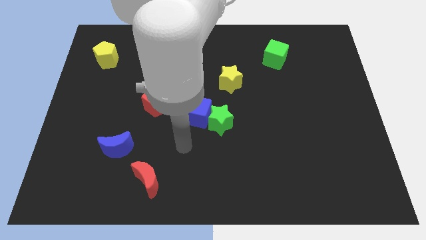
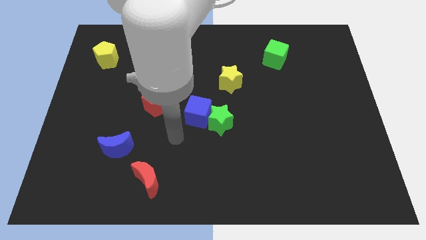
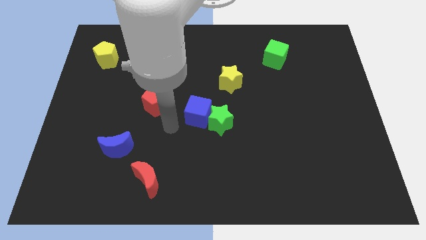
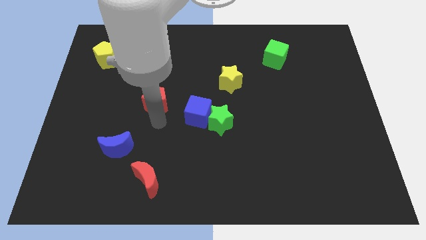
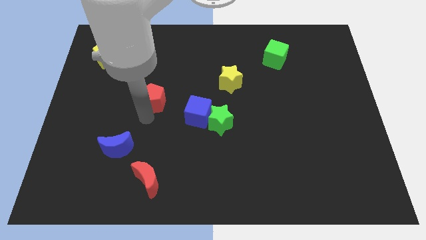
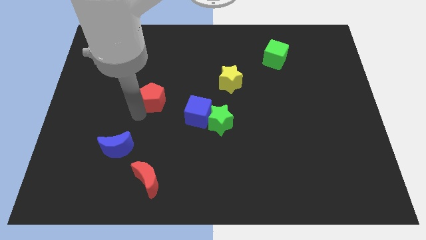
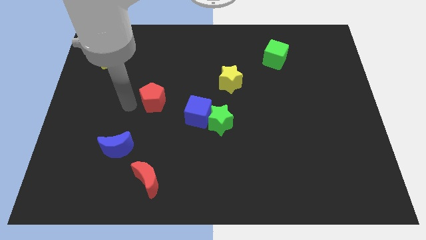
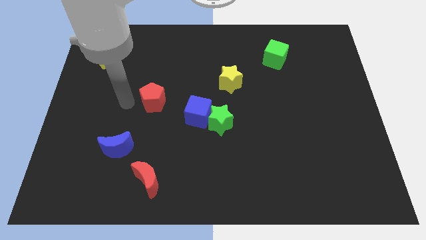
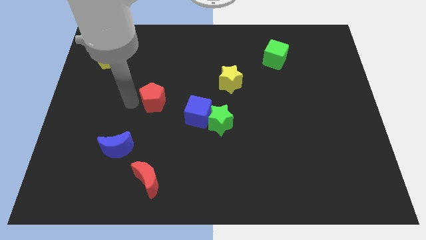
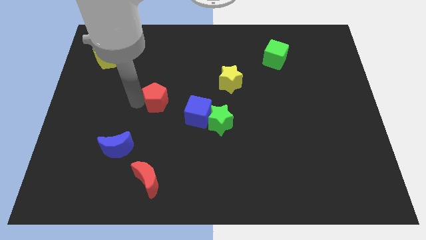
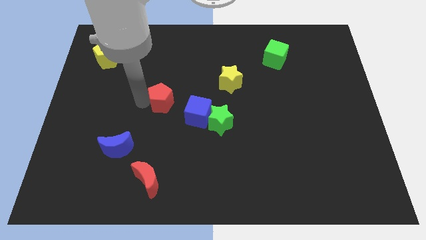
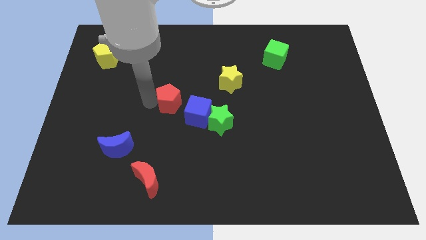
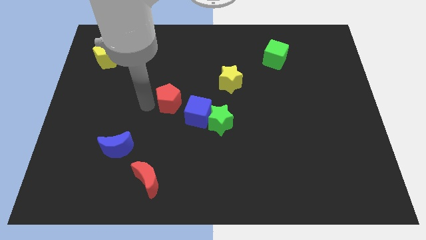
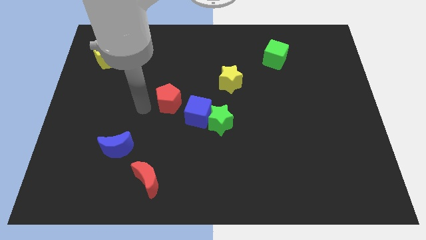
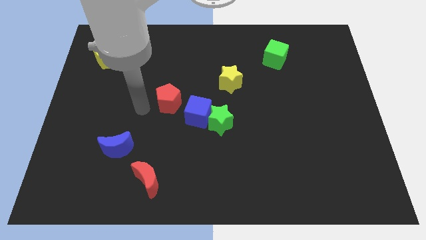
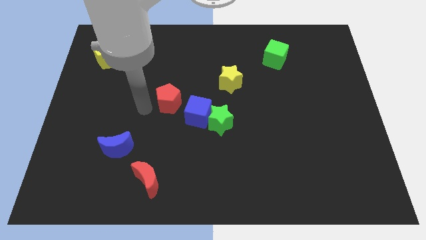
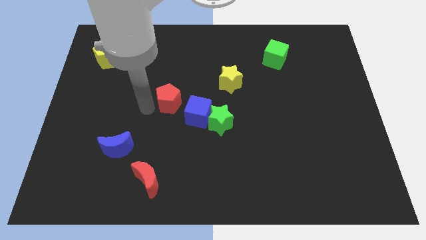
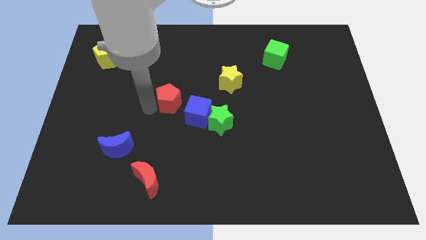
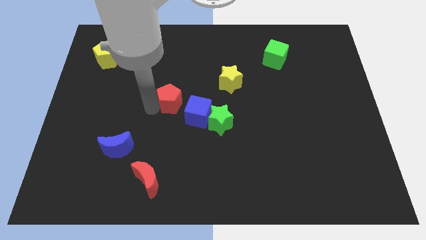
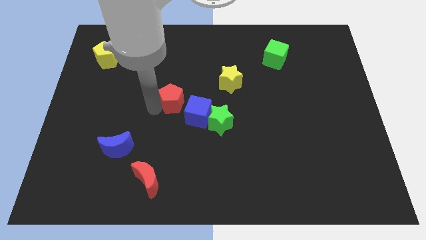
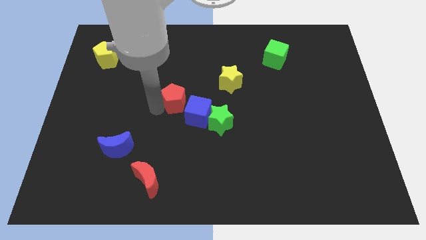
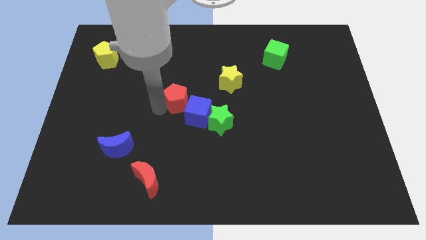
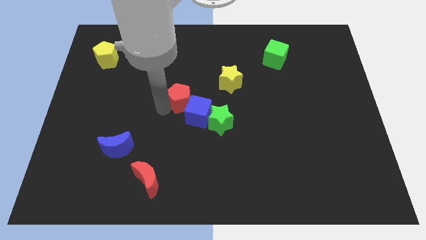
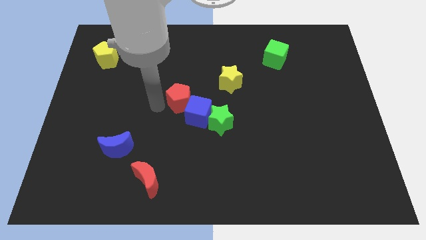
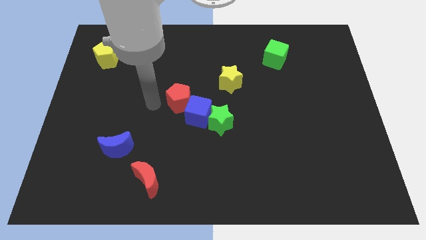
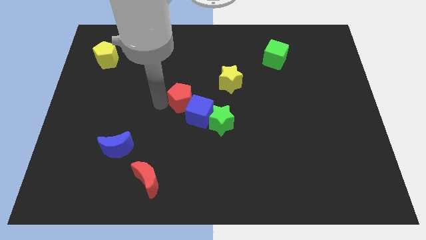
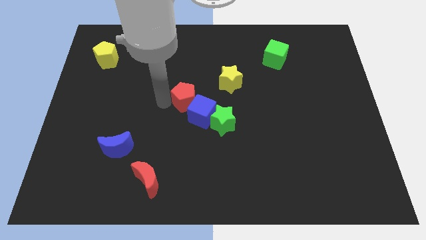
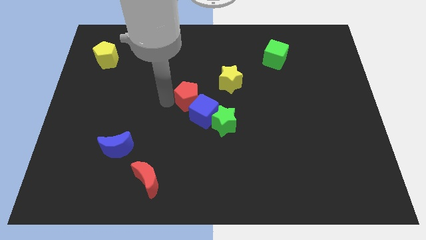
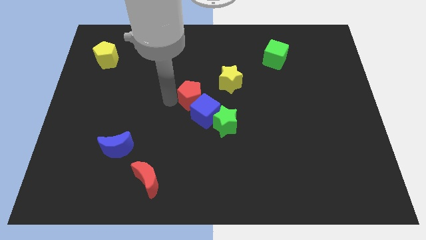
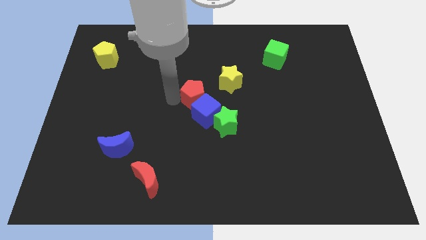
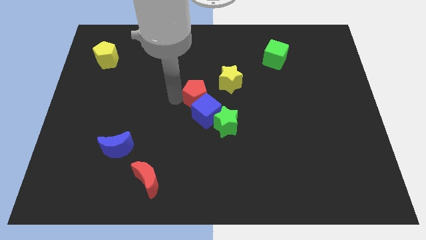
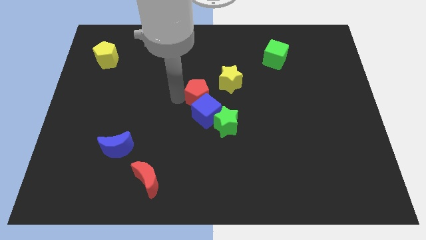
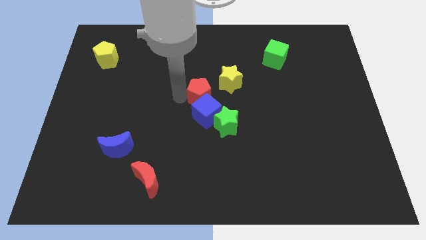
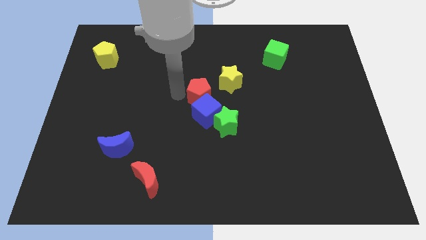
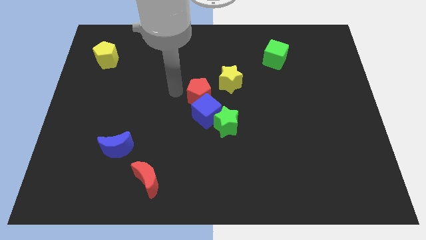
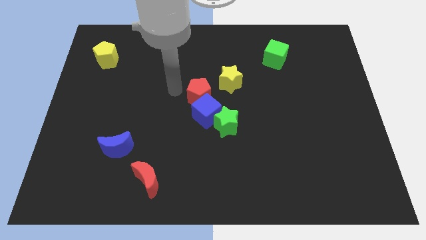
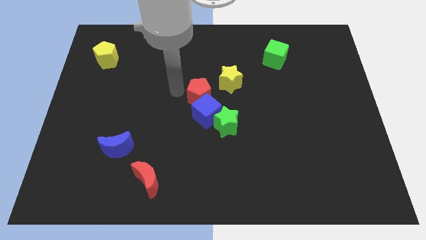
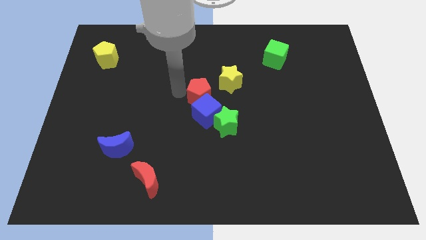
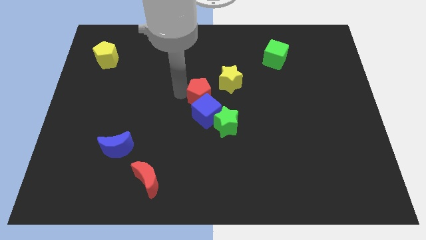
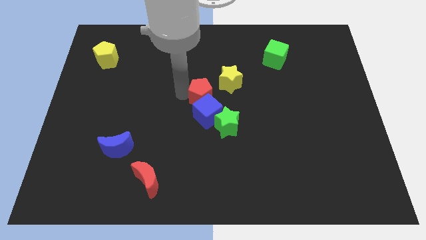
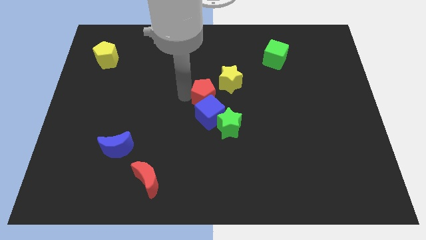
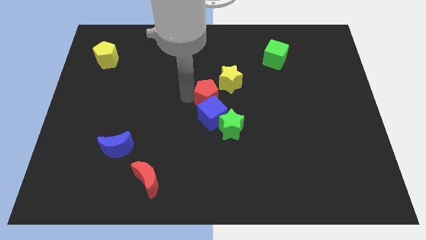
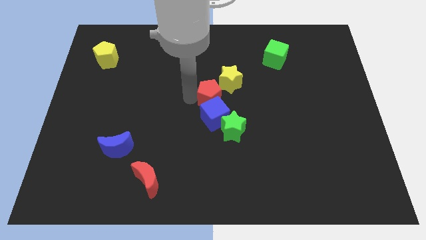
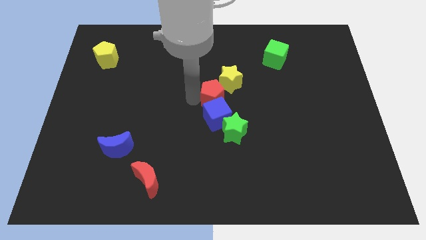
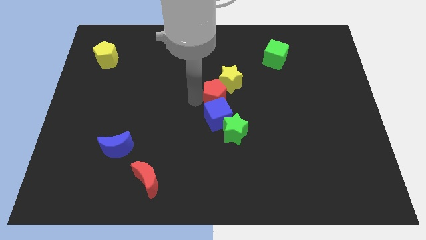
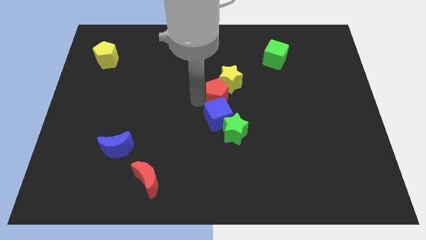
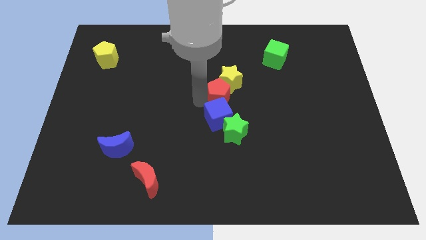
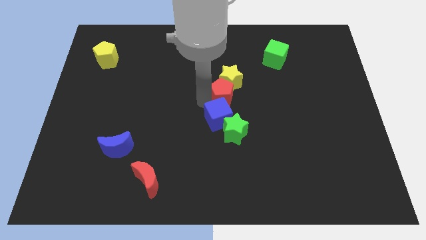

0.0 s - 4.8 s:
put the red pentagon to the bottom right of the yellow star

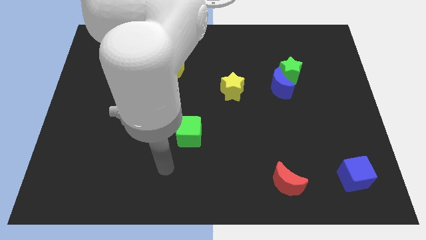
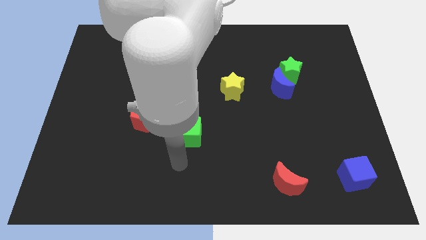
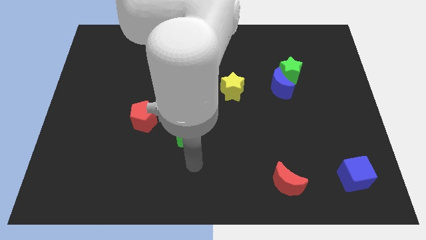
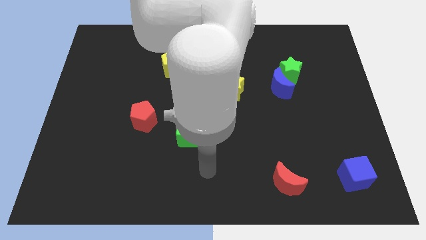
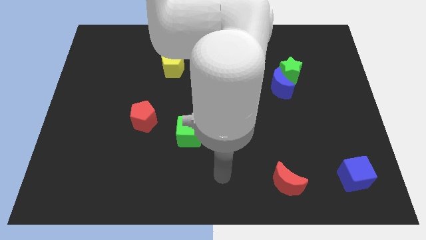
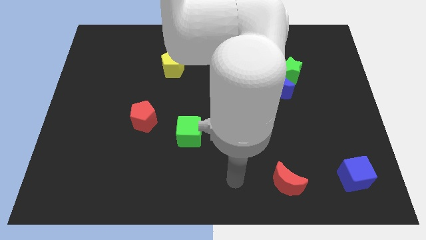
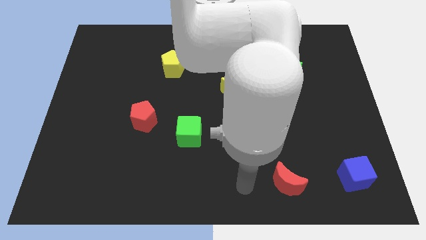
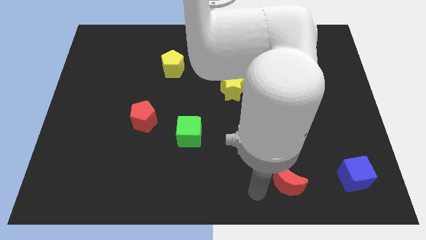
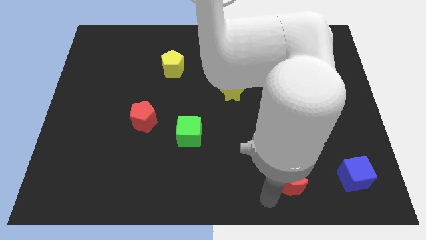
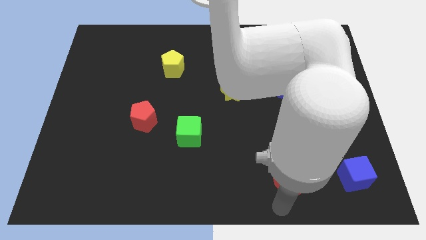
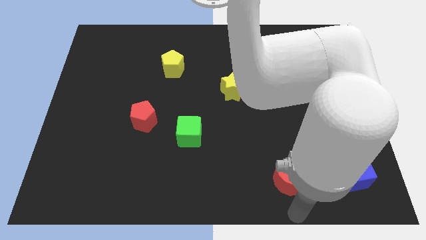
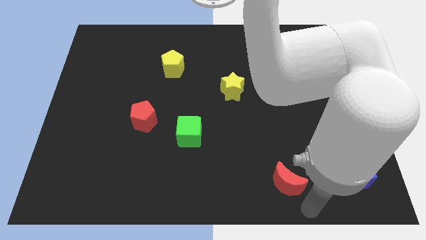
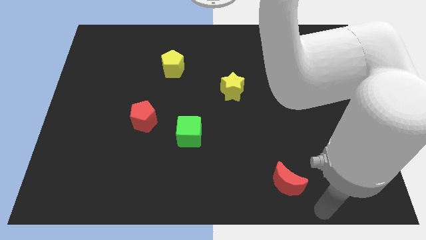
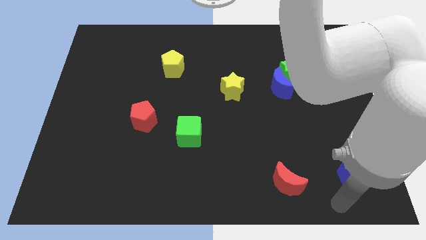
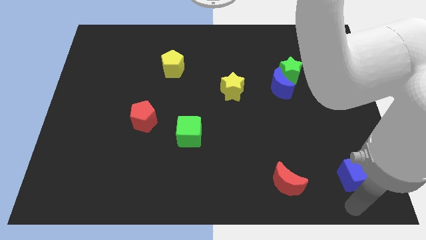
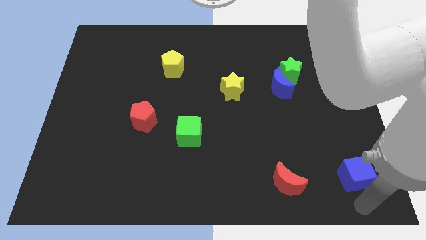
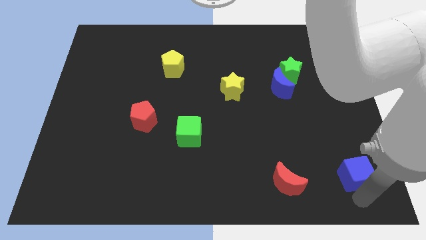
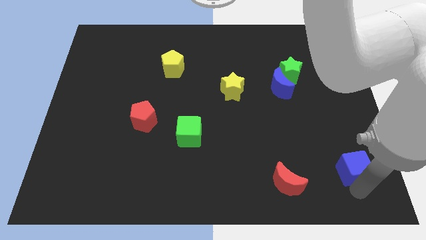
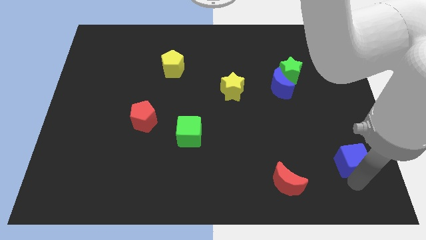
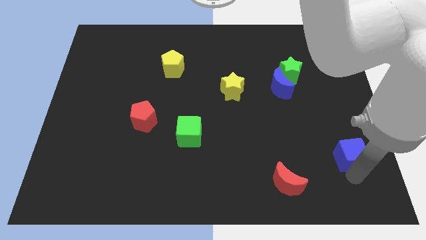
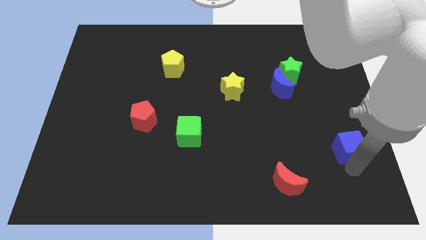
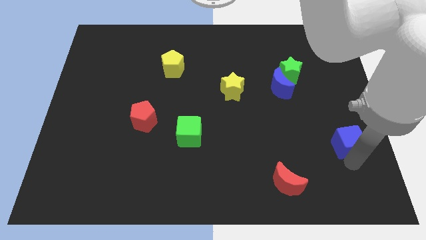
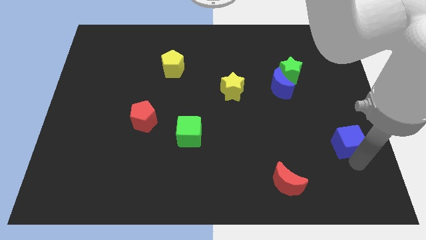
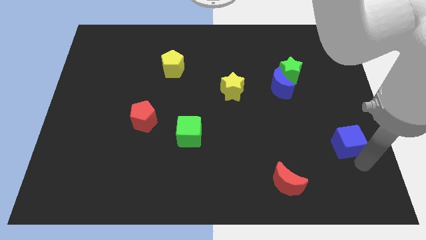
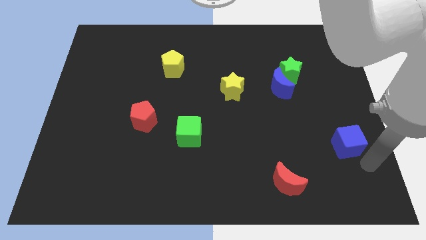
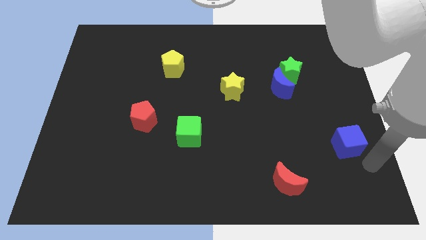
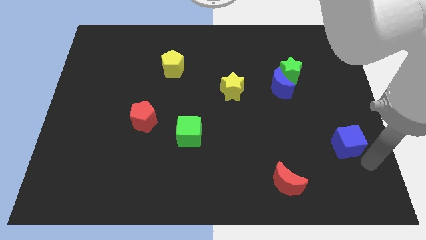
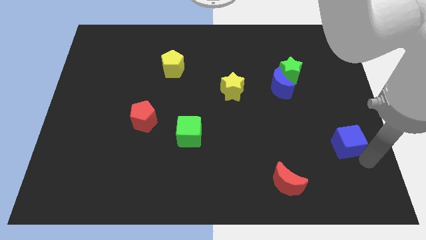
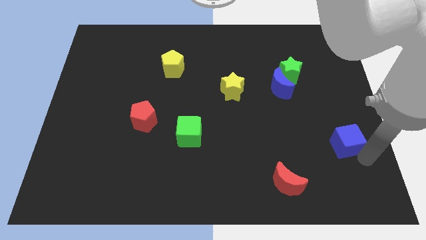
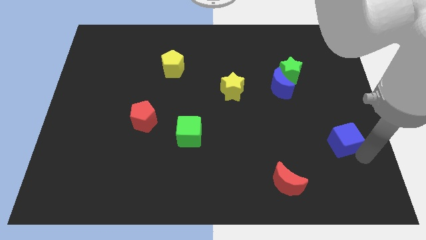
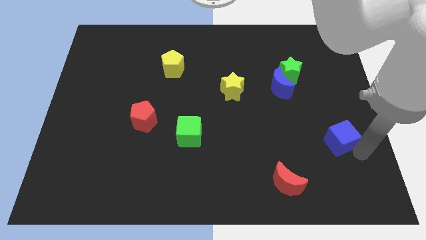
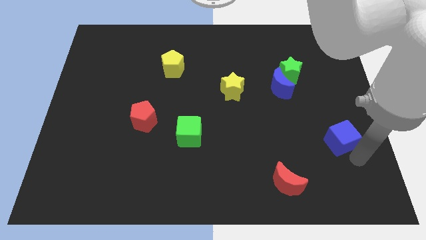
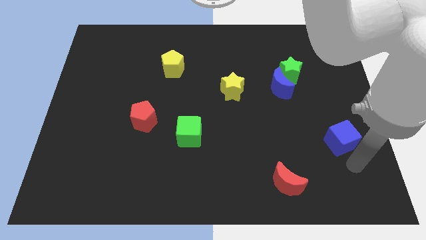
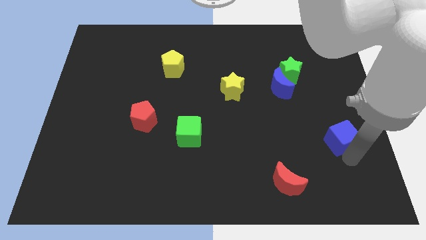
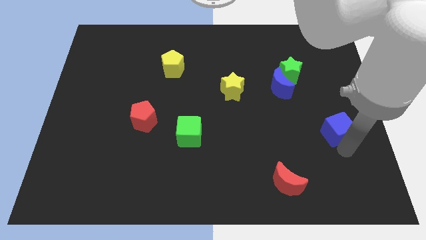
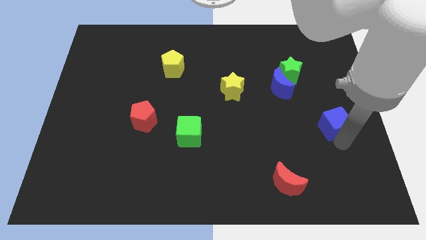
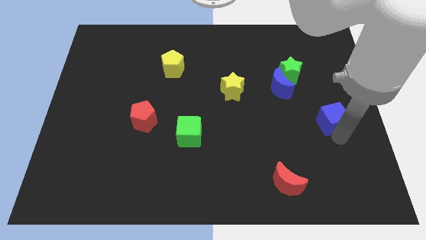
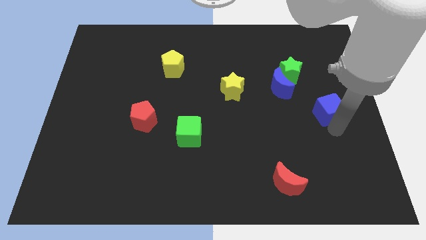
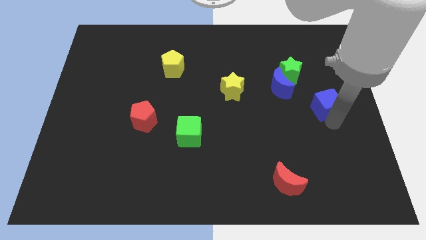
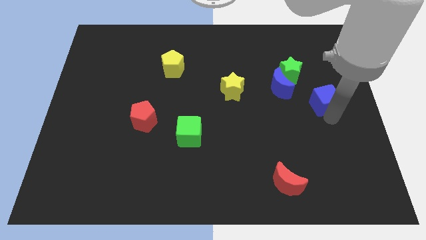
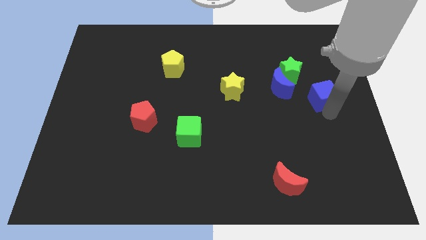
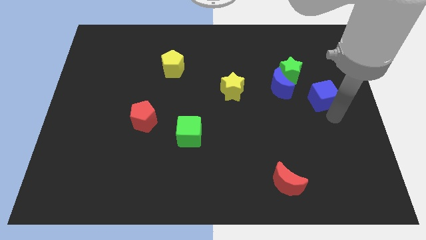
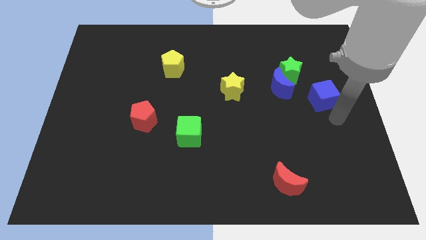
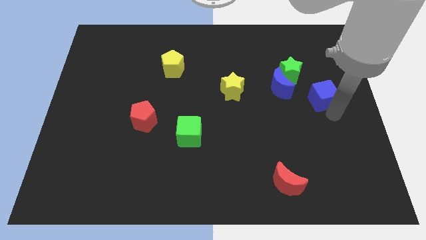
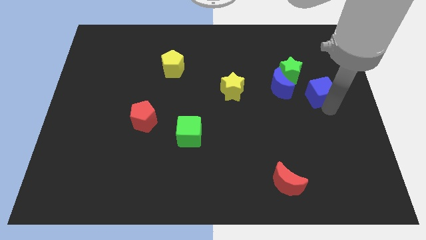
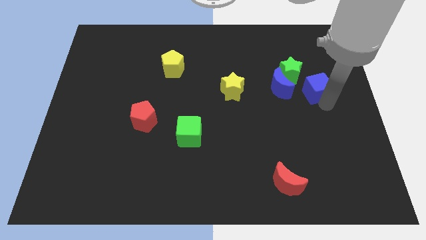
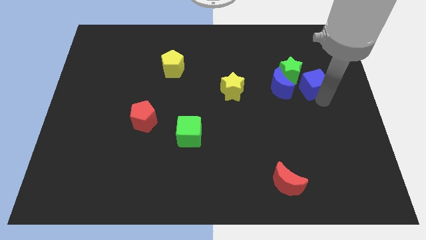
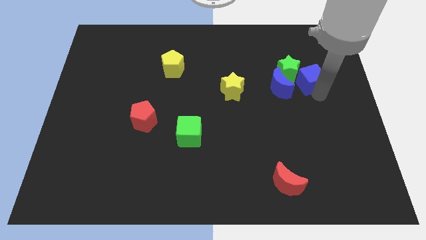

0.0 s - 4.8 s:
put the blue cube to the top right of the blue moon
